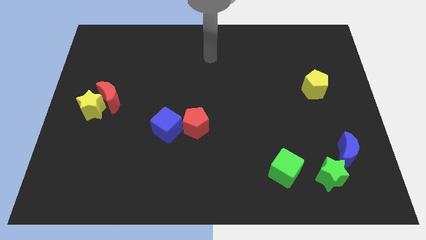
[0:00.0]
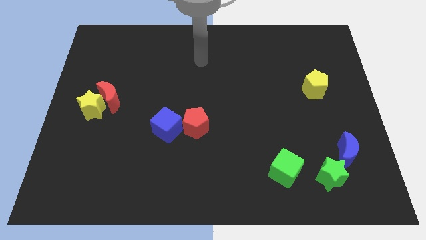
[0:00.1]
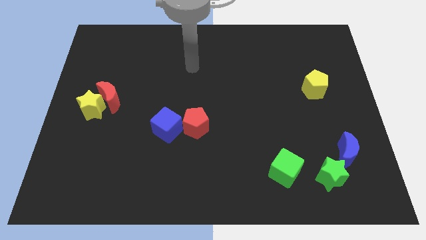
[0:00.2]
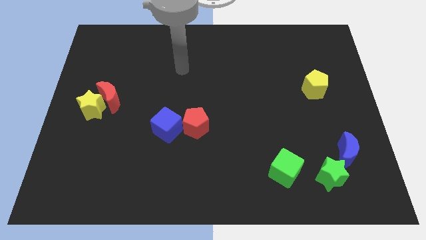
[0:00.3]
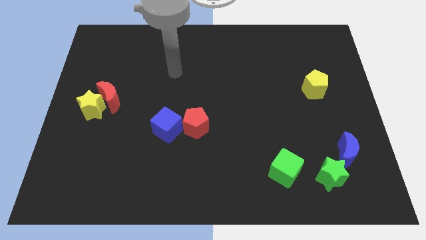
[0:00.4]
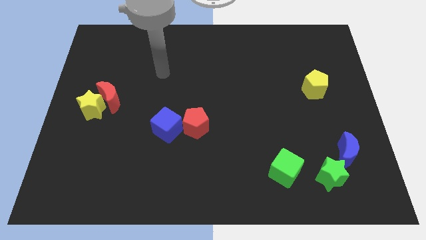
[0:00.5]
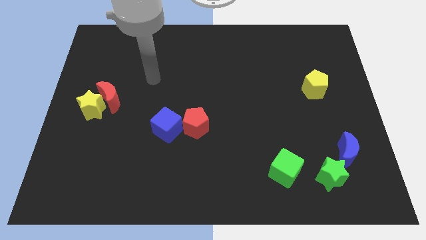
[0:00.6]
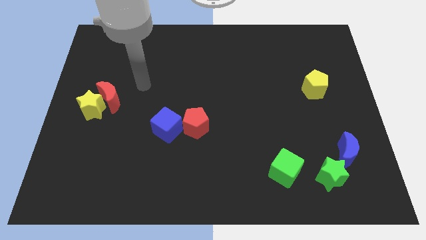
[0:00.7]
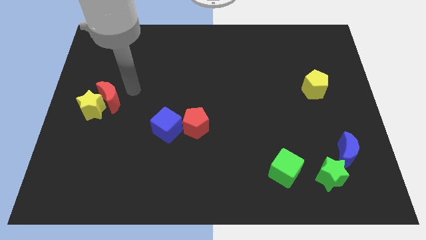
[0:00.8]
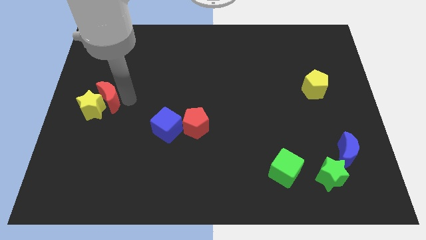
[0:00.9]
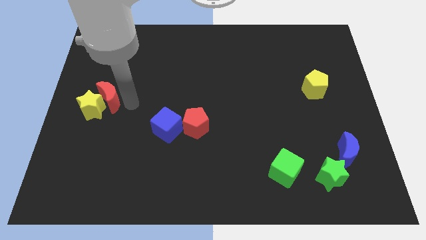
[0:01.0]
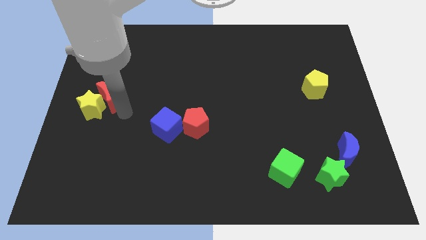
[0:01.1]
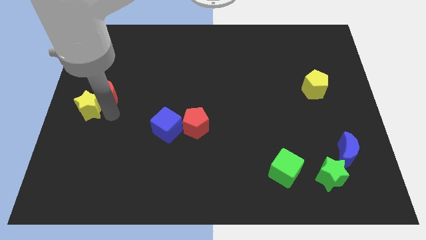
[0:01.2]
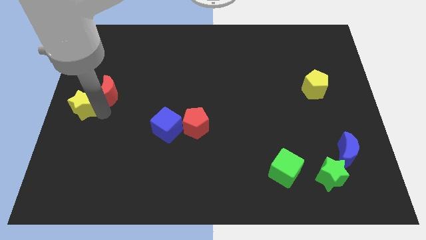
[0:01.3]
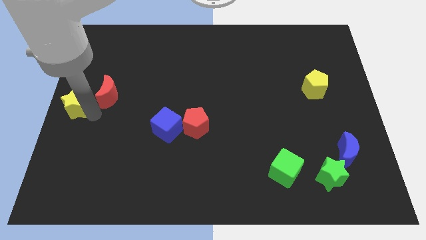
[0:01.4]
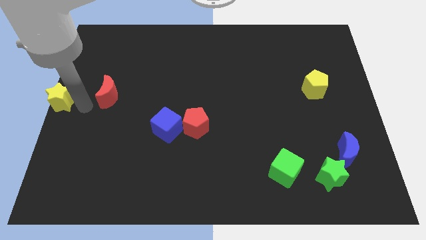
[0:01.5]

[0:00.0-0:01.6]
separate the red moon from the yellow star

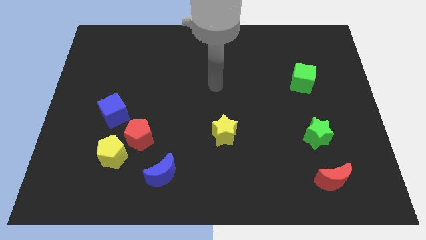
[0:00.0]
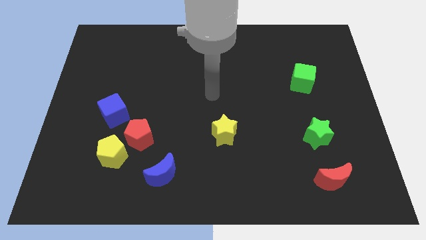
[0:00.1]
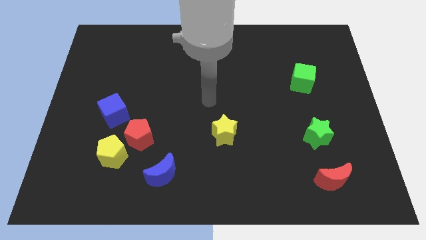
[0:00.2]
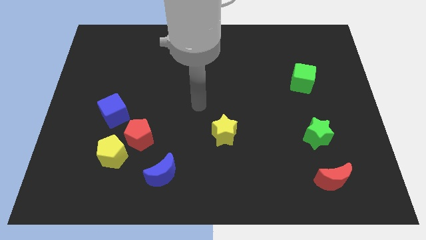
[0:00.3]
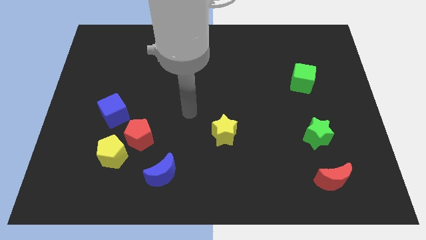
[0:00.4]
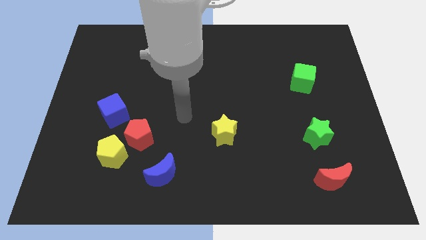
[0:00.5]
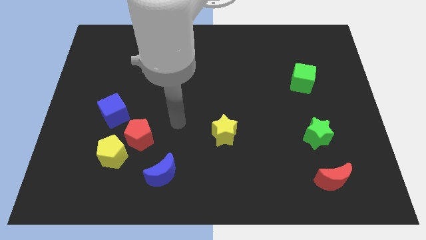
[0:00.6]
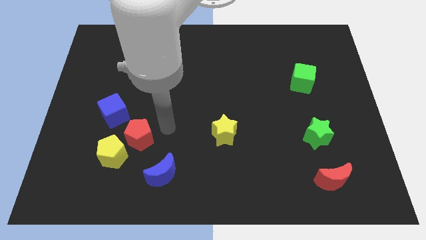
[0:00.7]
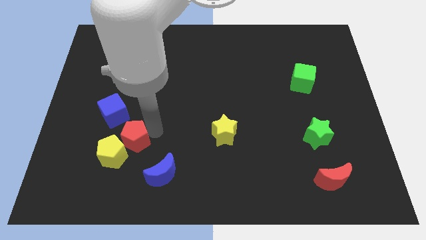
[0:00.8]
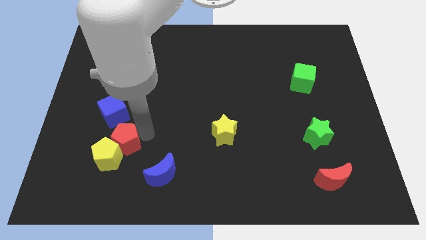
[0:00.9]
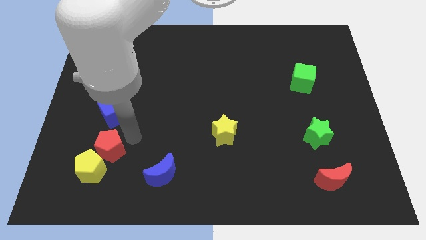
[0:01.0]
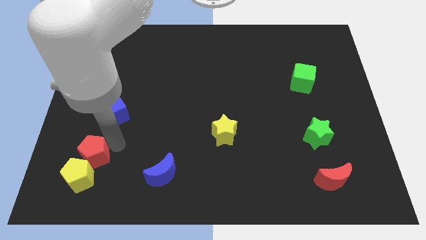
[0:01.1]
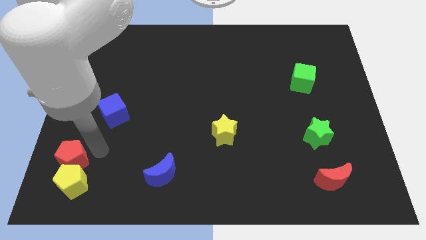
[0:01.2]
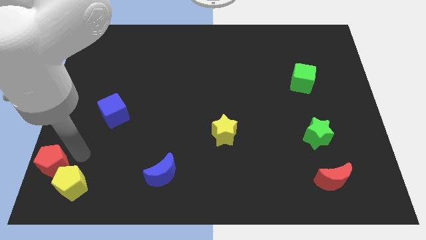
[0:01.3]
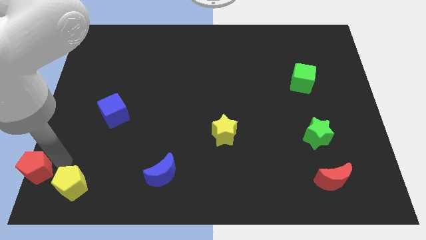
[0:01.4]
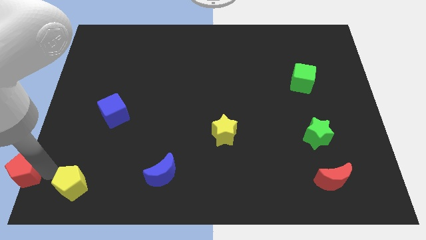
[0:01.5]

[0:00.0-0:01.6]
pull the yellow pentagon apart from the red pentagon

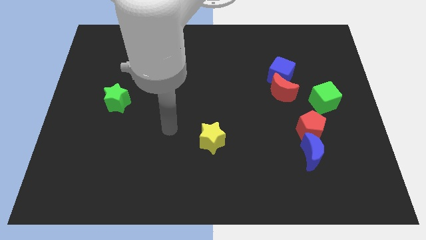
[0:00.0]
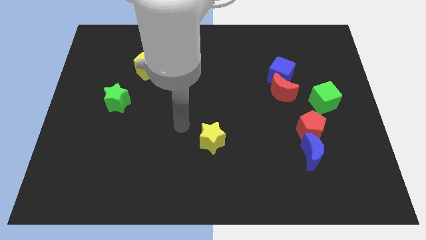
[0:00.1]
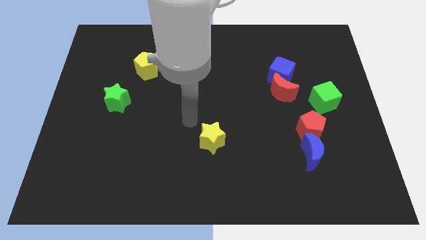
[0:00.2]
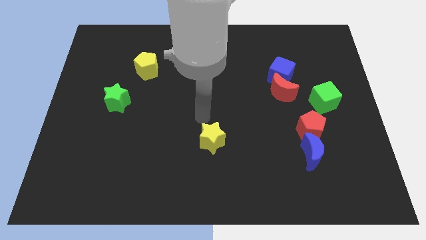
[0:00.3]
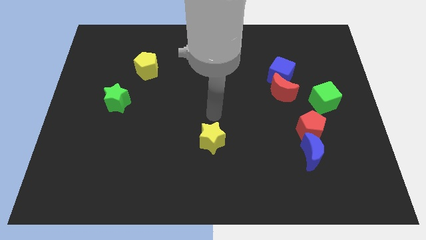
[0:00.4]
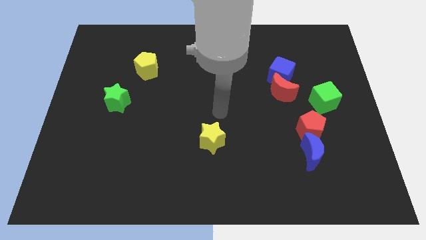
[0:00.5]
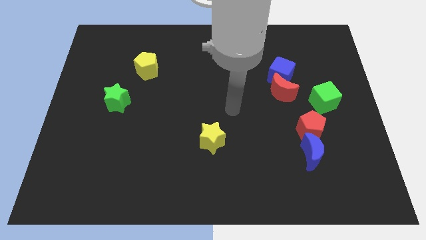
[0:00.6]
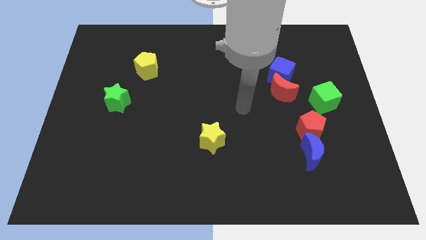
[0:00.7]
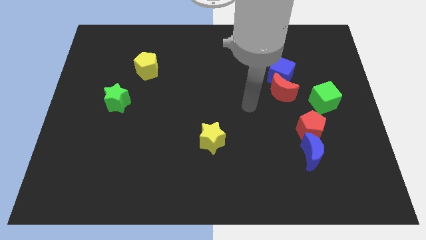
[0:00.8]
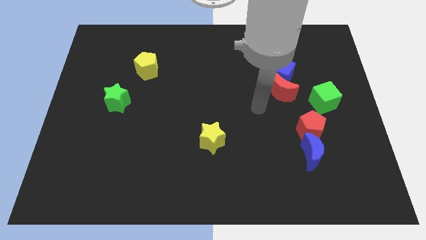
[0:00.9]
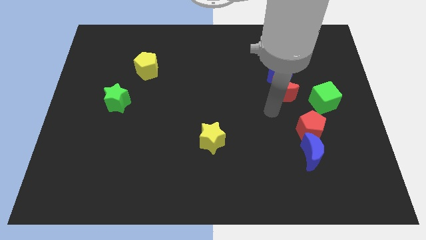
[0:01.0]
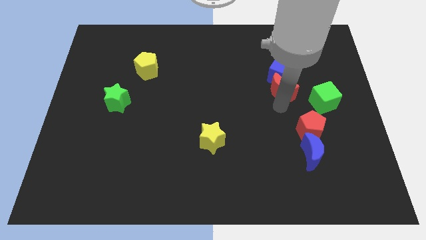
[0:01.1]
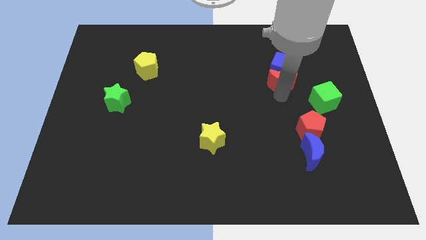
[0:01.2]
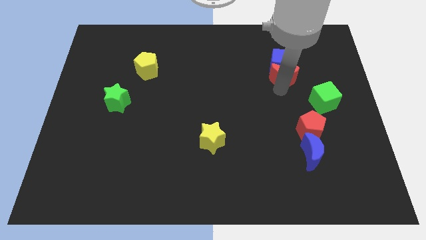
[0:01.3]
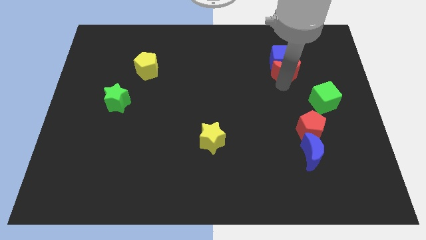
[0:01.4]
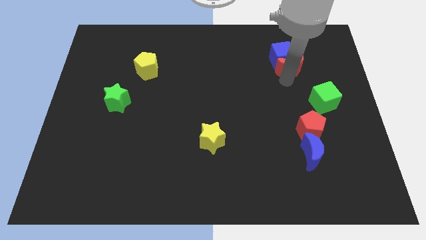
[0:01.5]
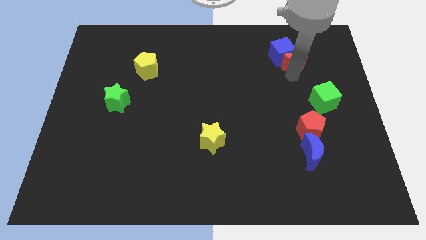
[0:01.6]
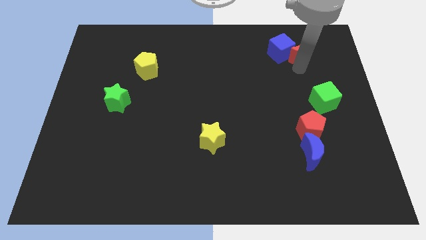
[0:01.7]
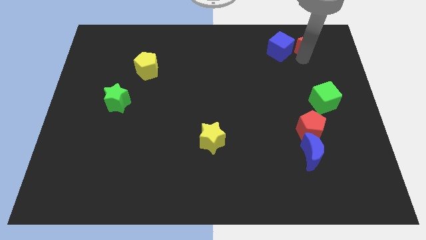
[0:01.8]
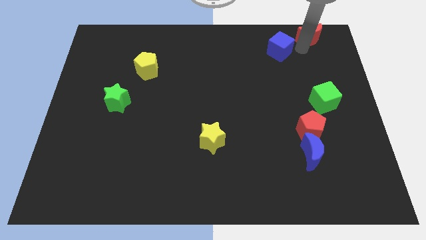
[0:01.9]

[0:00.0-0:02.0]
separate the blue cube from the red moon

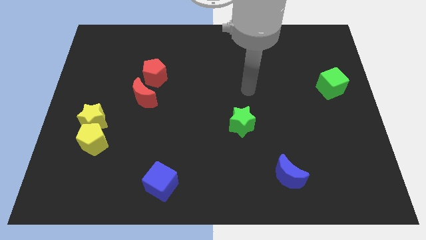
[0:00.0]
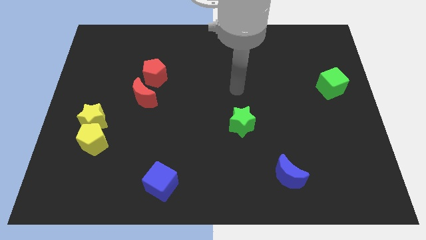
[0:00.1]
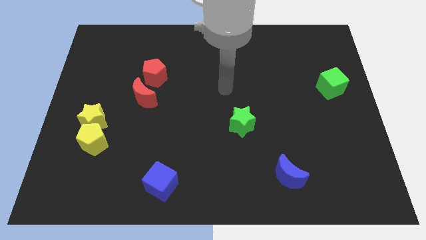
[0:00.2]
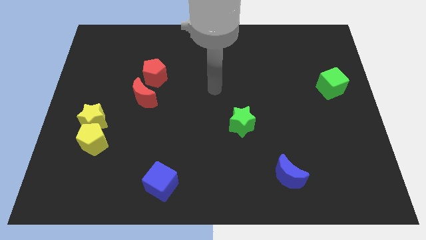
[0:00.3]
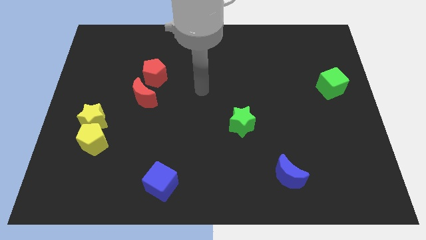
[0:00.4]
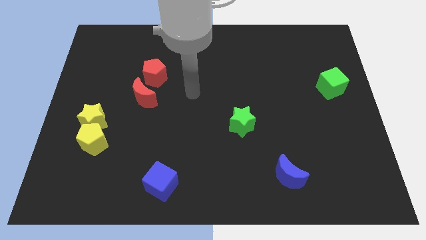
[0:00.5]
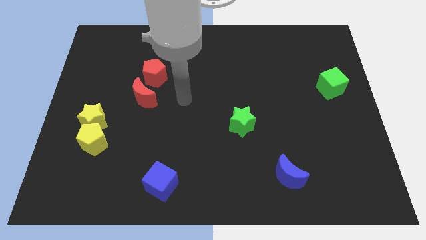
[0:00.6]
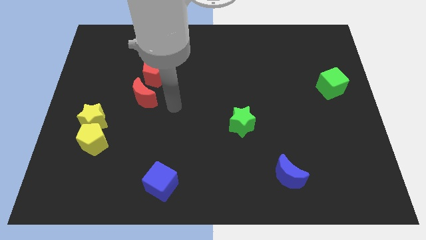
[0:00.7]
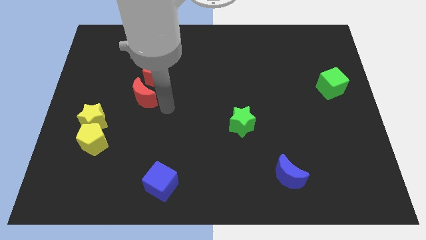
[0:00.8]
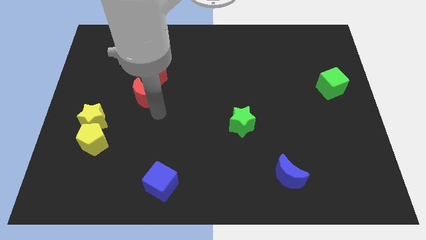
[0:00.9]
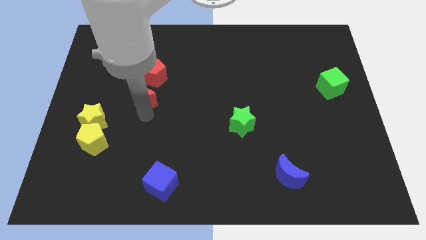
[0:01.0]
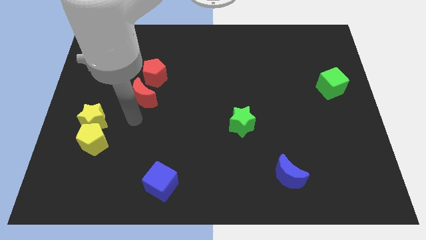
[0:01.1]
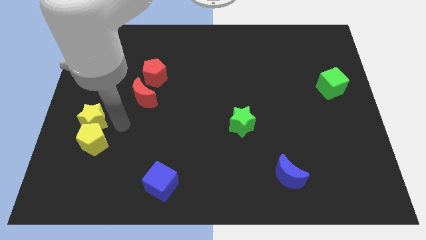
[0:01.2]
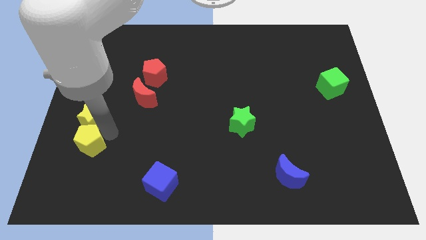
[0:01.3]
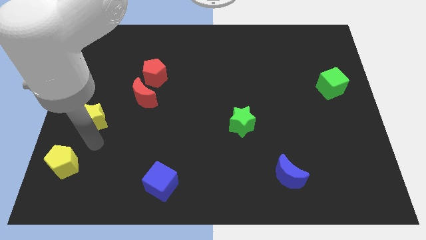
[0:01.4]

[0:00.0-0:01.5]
pull the yellow star apart from the yellow pentagon

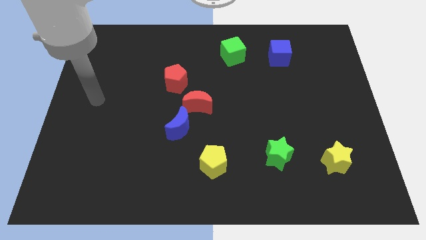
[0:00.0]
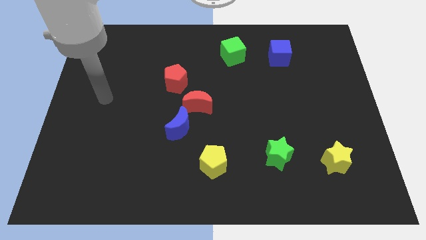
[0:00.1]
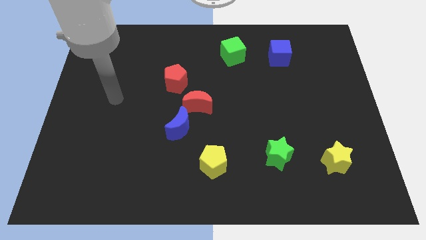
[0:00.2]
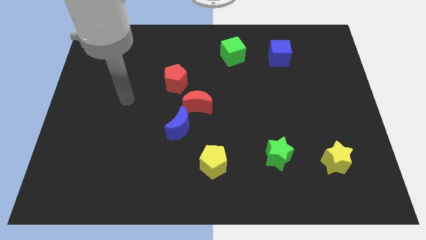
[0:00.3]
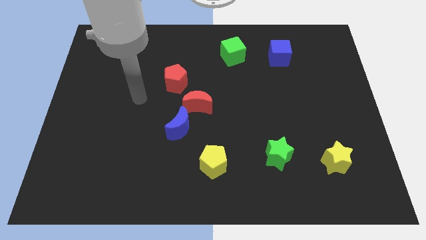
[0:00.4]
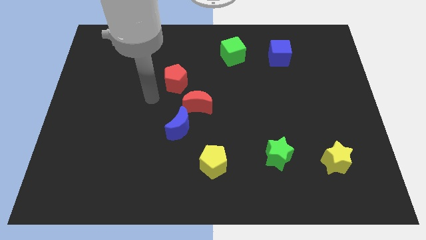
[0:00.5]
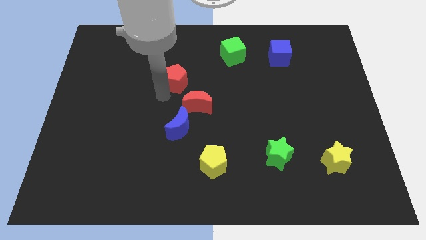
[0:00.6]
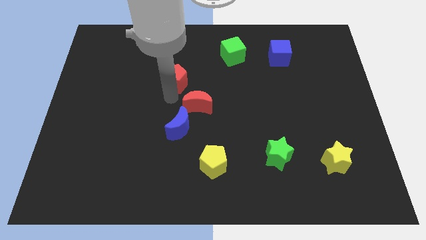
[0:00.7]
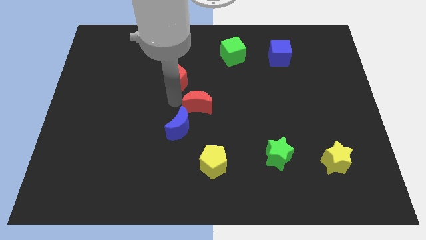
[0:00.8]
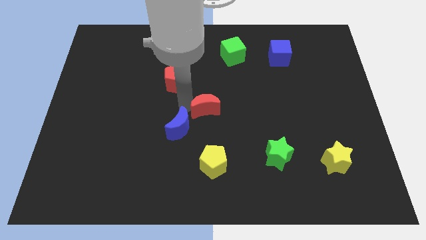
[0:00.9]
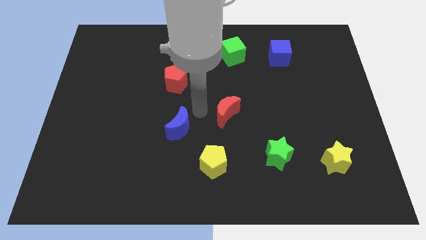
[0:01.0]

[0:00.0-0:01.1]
pull the blue moon apart from the red moon

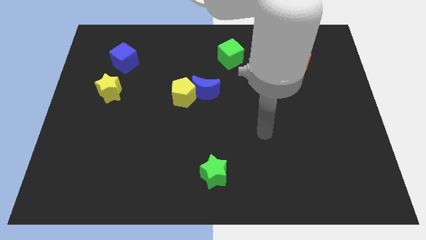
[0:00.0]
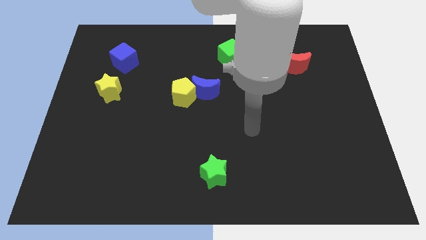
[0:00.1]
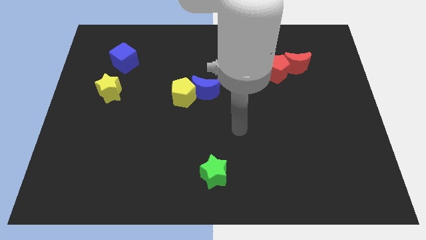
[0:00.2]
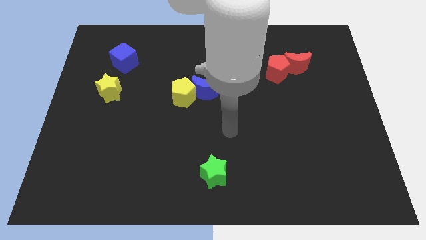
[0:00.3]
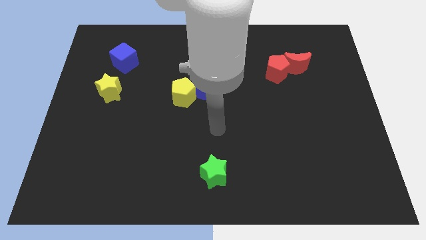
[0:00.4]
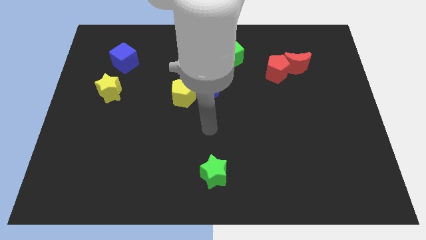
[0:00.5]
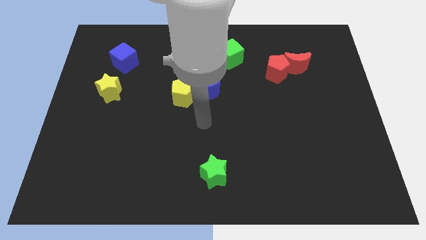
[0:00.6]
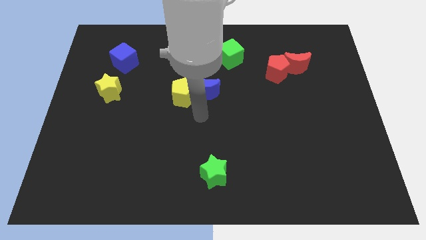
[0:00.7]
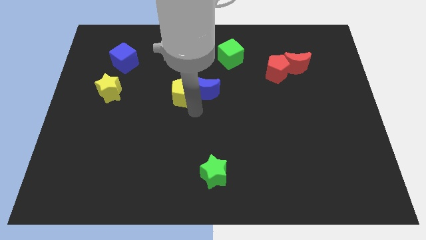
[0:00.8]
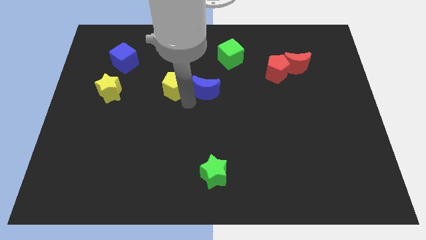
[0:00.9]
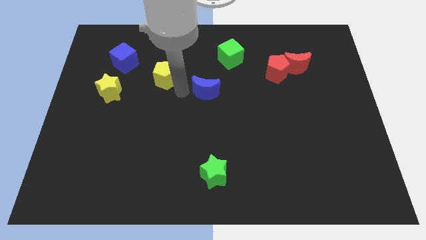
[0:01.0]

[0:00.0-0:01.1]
pull the blue moon apart from the yellow pentagon

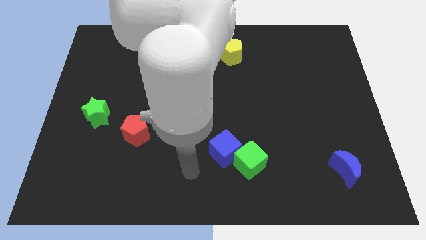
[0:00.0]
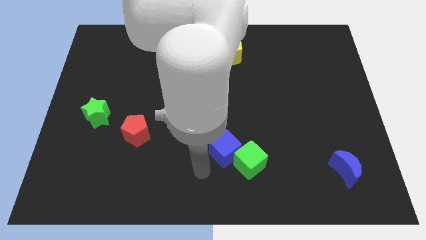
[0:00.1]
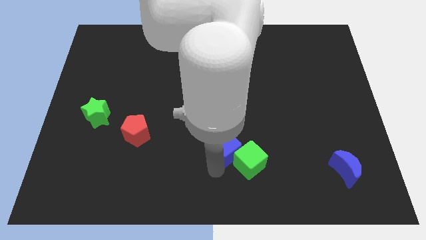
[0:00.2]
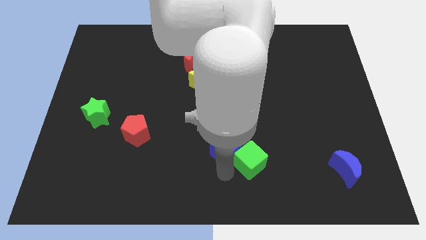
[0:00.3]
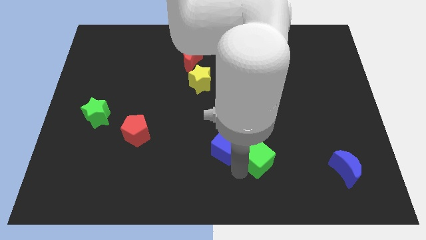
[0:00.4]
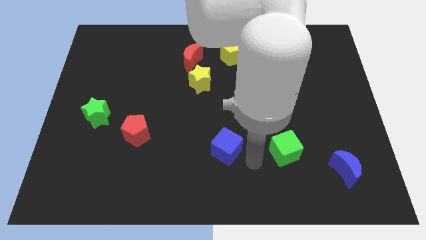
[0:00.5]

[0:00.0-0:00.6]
pull the blue cube apart from the green cube
